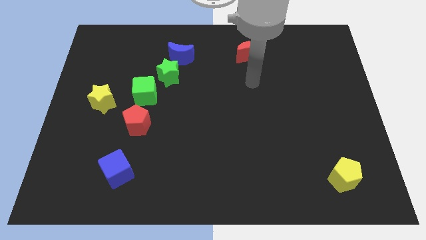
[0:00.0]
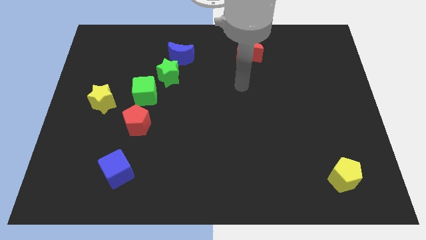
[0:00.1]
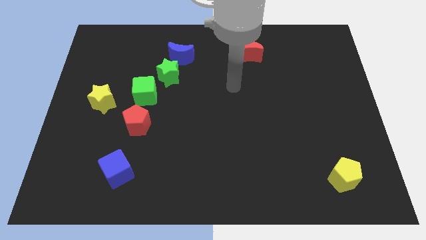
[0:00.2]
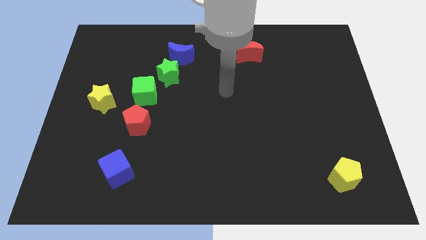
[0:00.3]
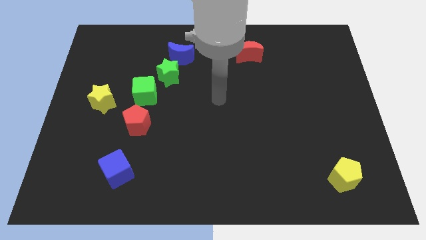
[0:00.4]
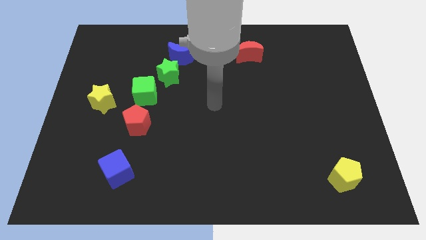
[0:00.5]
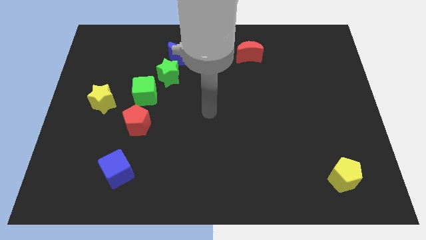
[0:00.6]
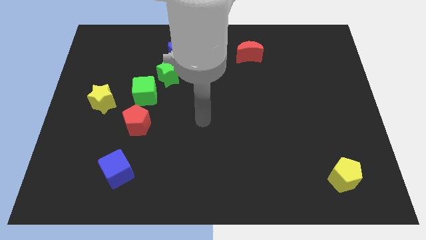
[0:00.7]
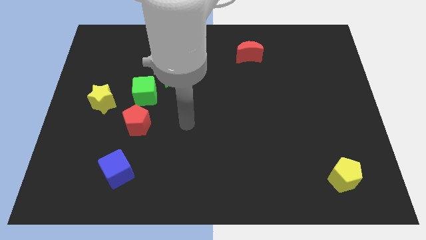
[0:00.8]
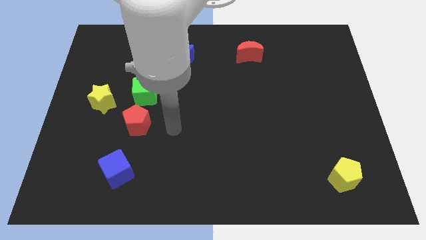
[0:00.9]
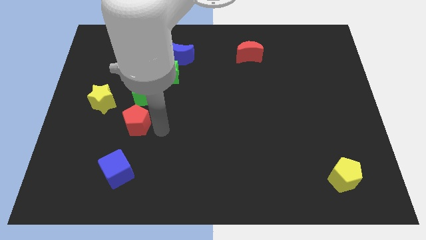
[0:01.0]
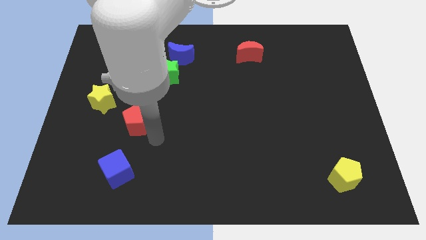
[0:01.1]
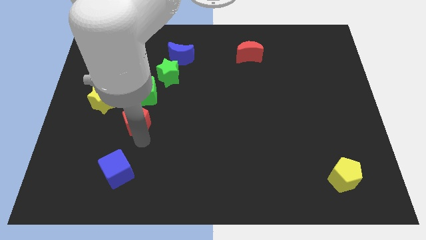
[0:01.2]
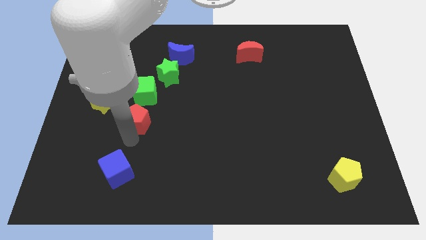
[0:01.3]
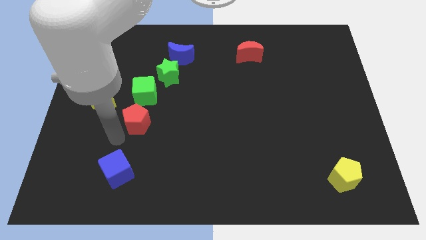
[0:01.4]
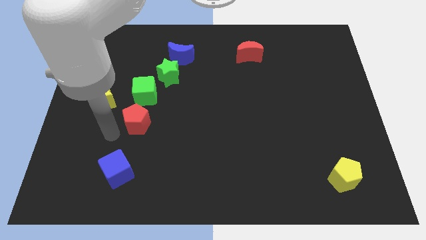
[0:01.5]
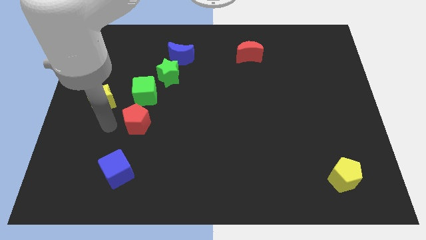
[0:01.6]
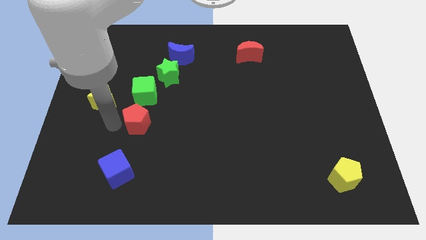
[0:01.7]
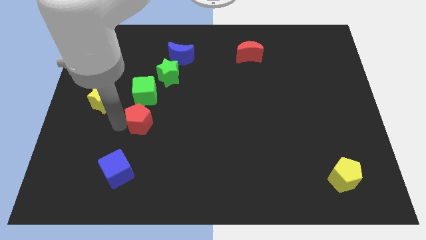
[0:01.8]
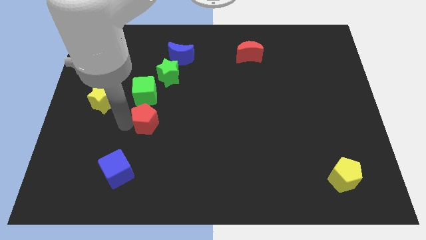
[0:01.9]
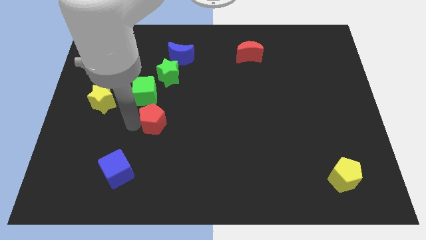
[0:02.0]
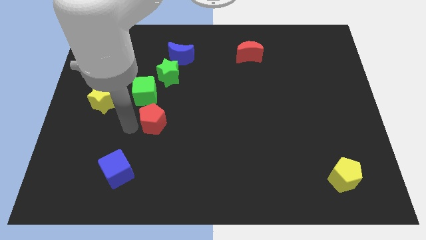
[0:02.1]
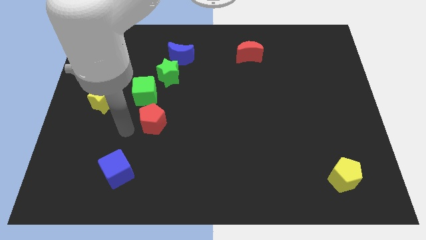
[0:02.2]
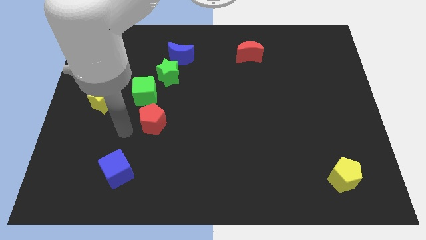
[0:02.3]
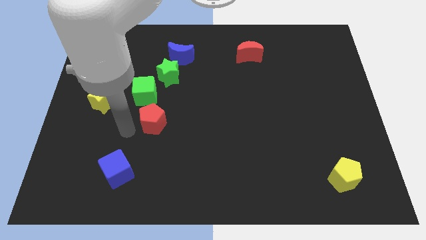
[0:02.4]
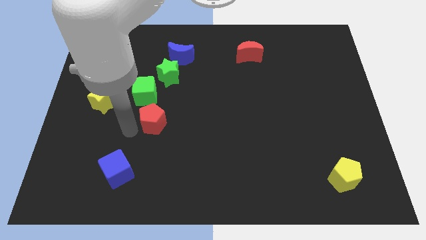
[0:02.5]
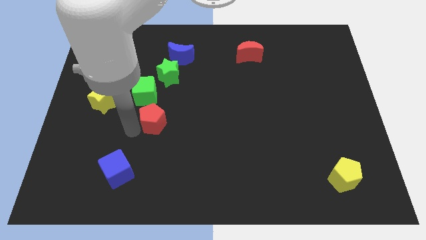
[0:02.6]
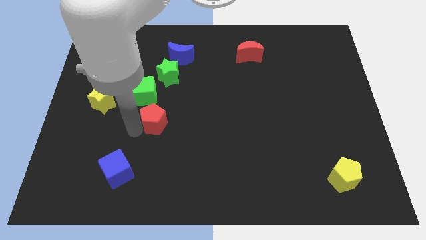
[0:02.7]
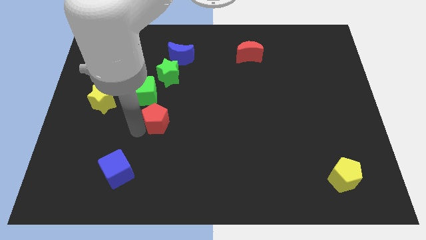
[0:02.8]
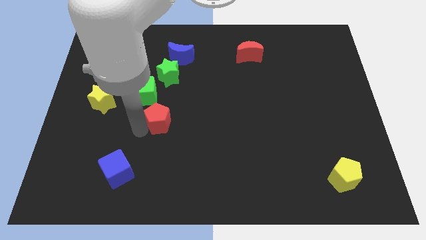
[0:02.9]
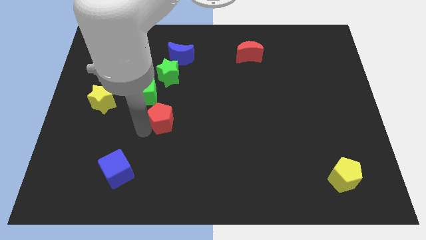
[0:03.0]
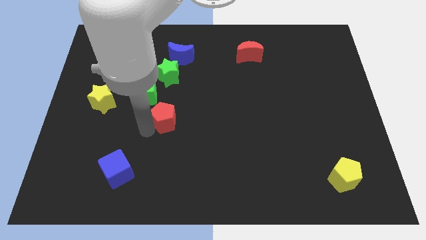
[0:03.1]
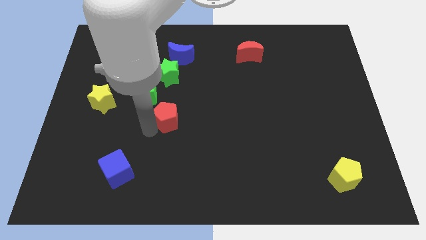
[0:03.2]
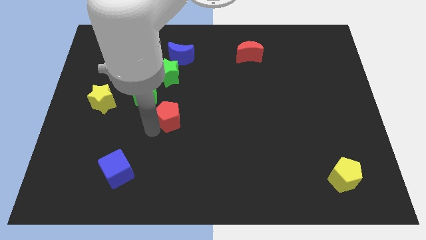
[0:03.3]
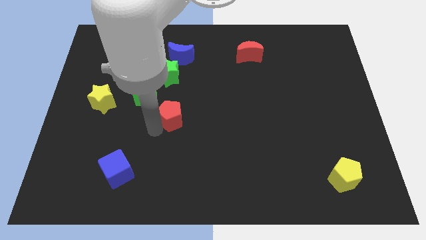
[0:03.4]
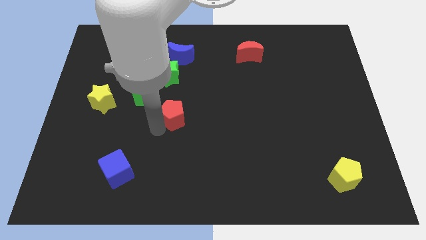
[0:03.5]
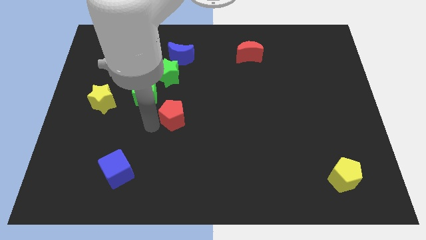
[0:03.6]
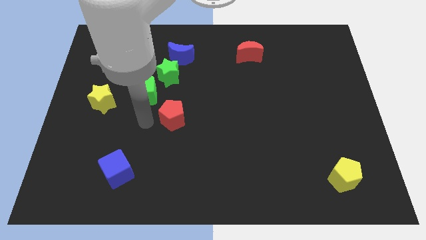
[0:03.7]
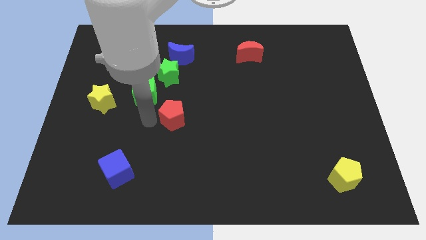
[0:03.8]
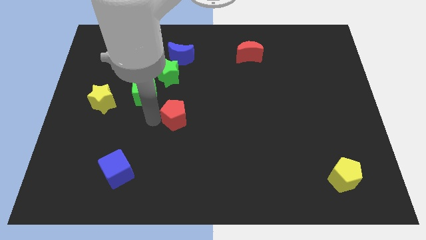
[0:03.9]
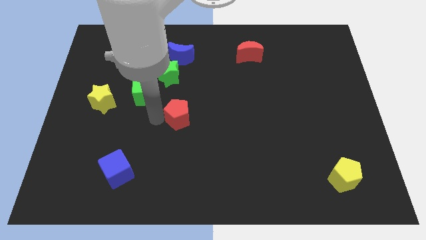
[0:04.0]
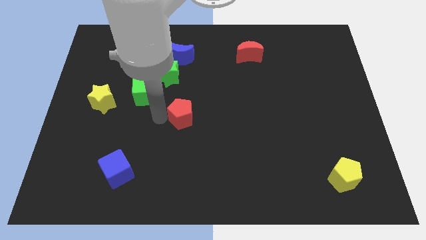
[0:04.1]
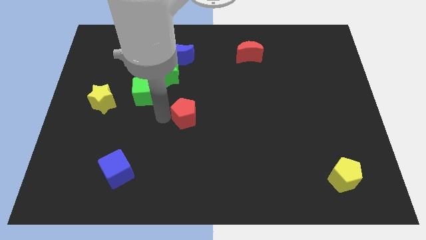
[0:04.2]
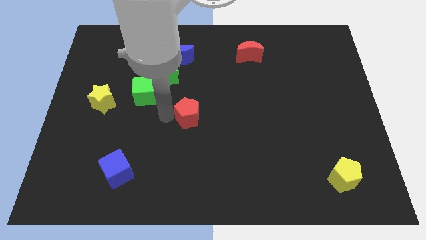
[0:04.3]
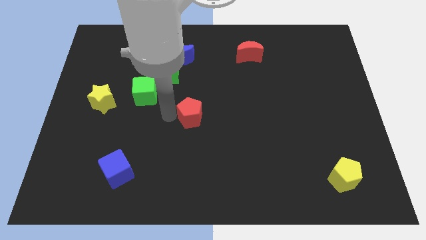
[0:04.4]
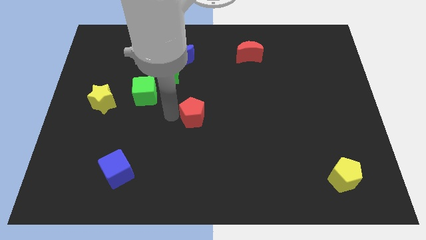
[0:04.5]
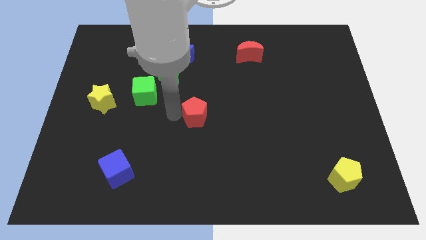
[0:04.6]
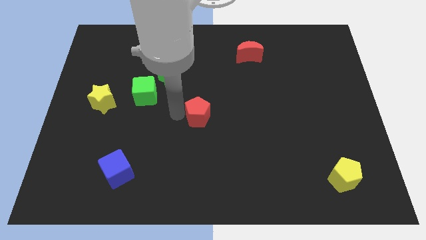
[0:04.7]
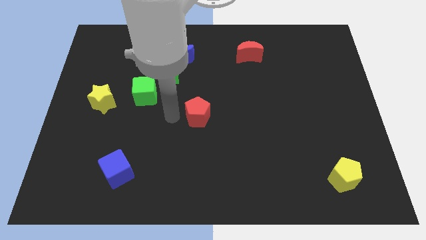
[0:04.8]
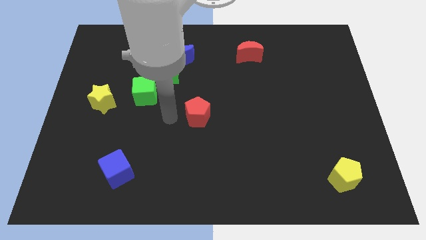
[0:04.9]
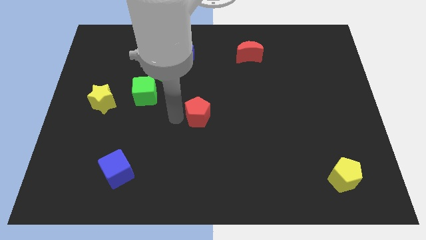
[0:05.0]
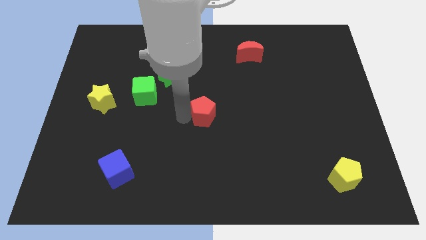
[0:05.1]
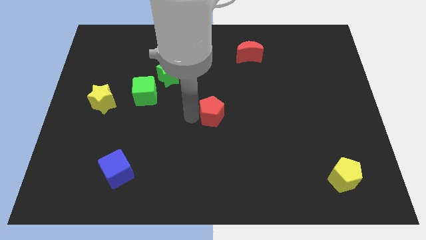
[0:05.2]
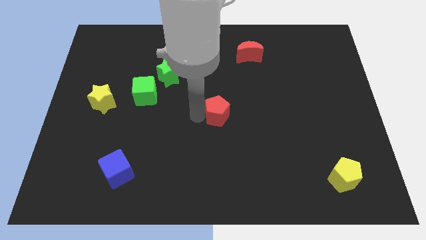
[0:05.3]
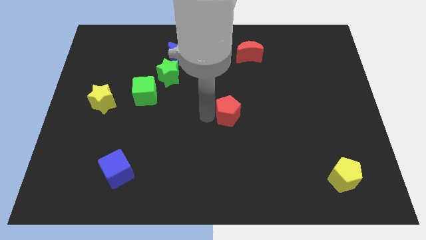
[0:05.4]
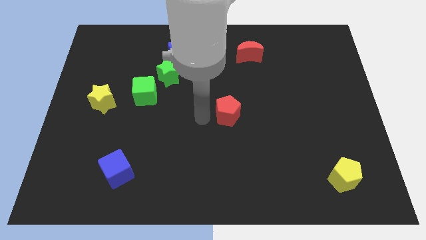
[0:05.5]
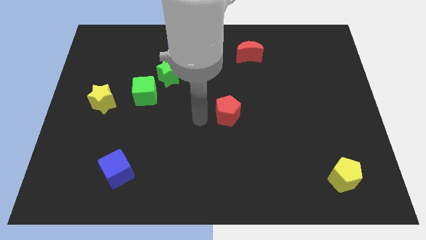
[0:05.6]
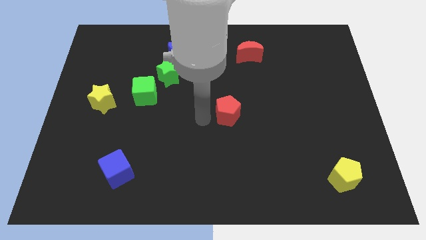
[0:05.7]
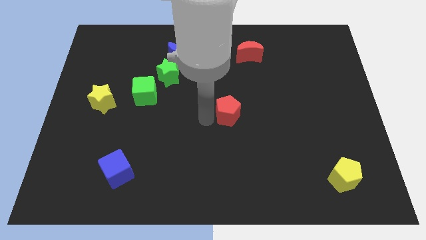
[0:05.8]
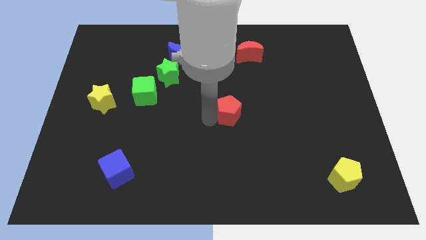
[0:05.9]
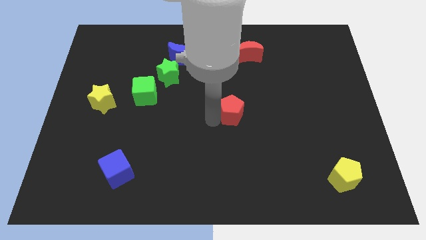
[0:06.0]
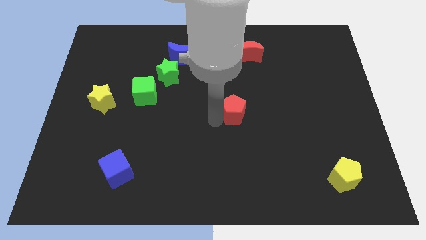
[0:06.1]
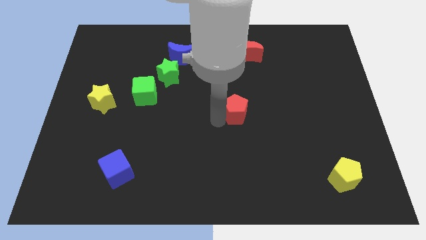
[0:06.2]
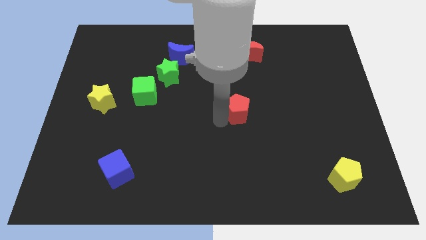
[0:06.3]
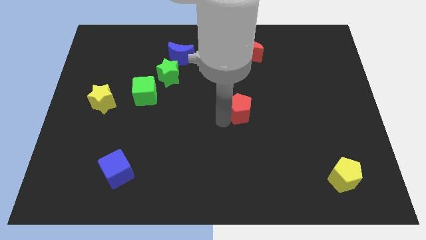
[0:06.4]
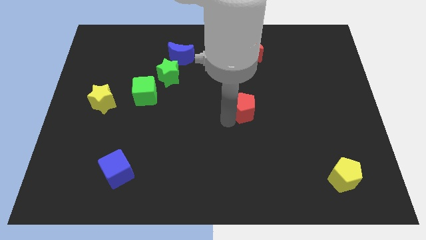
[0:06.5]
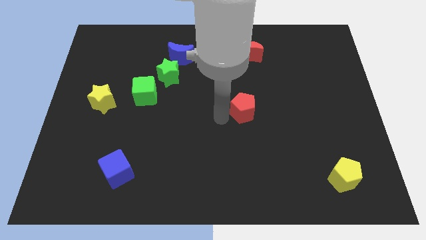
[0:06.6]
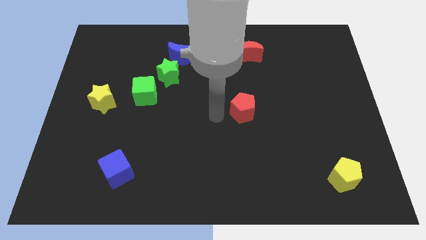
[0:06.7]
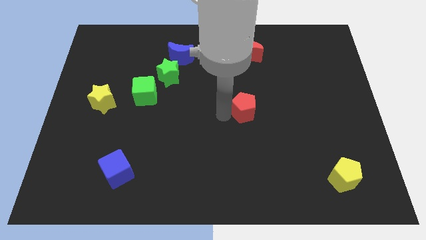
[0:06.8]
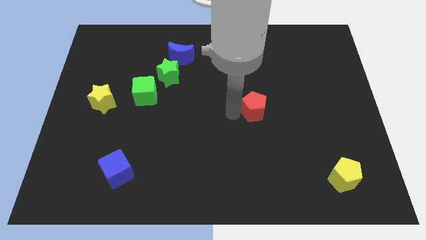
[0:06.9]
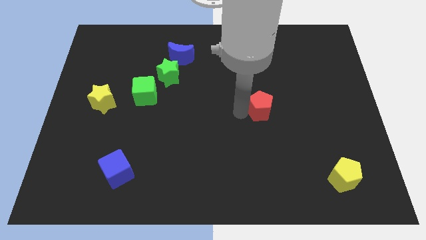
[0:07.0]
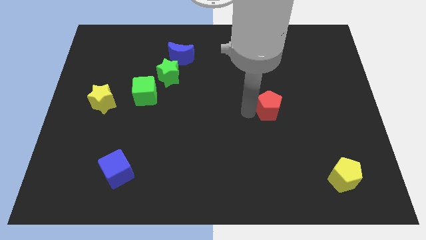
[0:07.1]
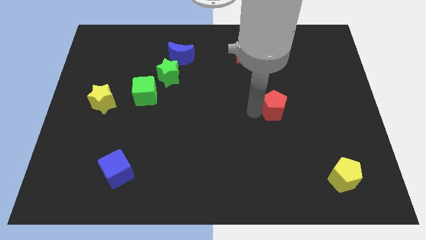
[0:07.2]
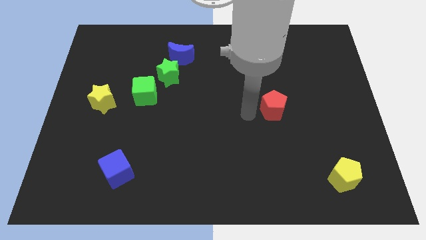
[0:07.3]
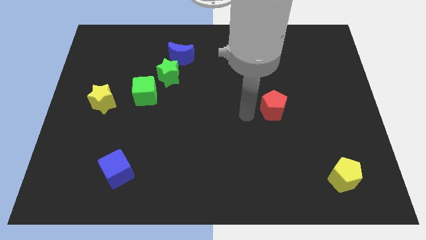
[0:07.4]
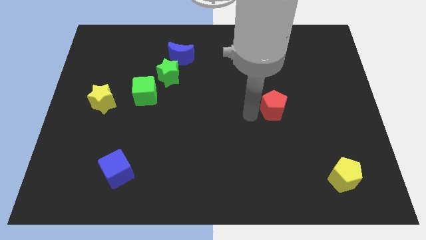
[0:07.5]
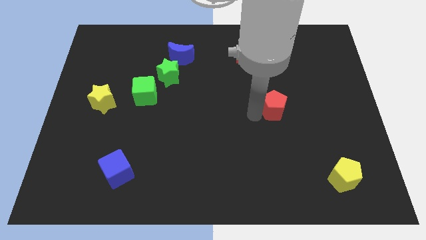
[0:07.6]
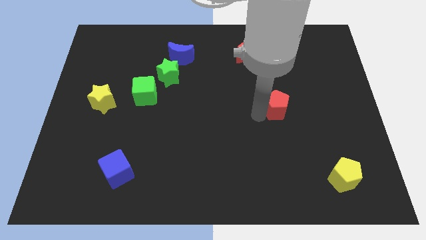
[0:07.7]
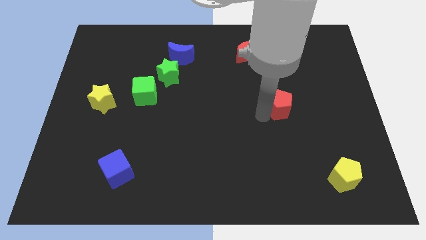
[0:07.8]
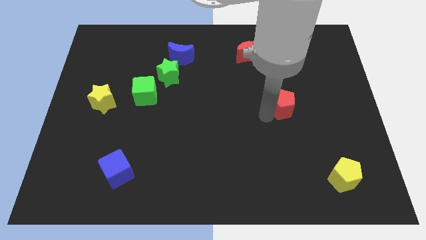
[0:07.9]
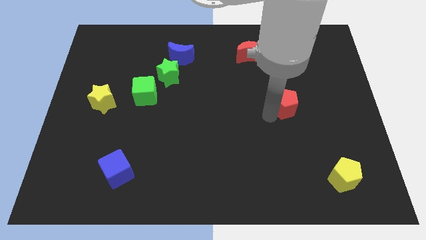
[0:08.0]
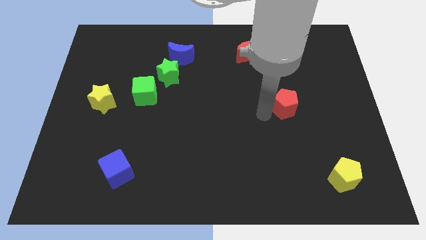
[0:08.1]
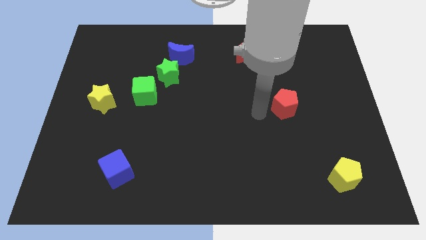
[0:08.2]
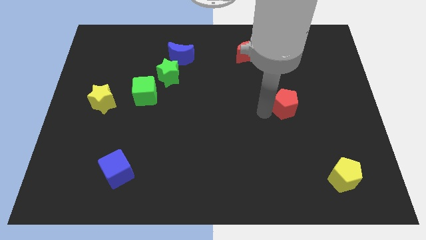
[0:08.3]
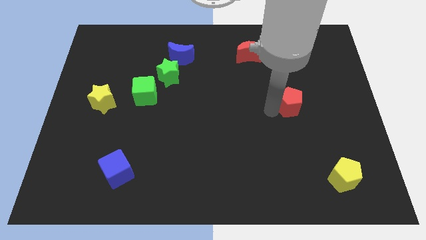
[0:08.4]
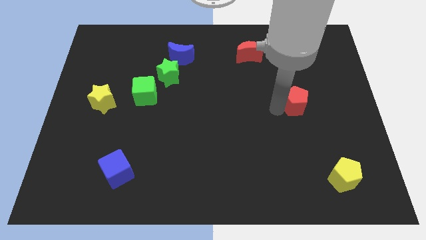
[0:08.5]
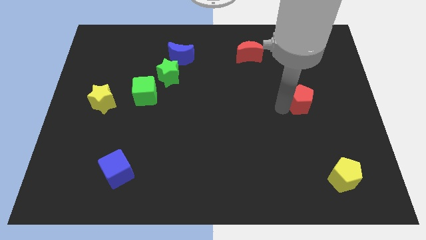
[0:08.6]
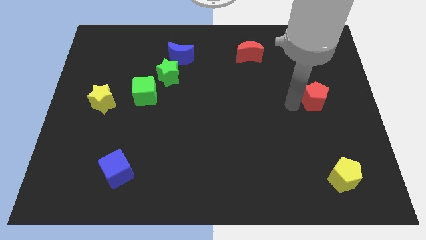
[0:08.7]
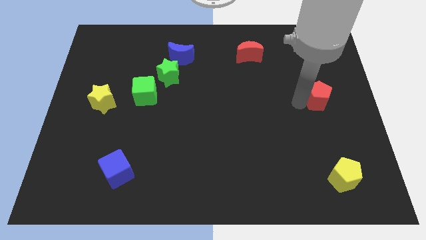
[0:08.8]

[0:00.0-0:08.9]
push the red pentagon to the right side
